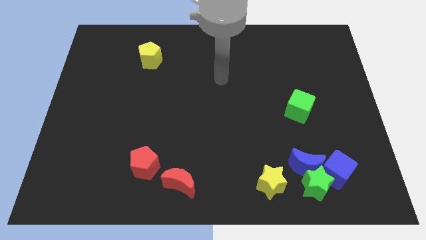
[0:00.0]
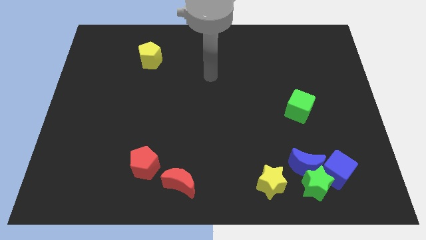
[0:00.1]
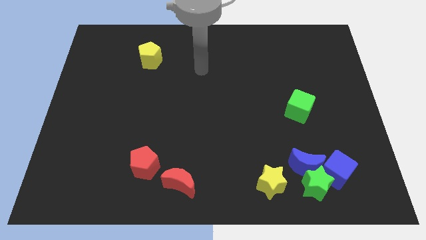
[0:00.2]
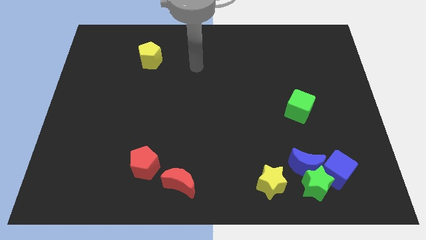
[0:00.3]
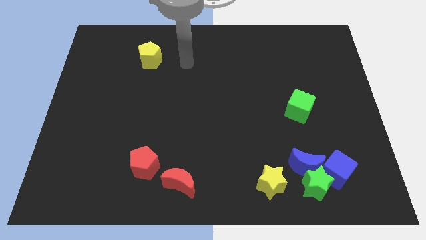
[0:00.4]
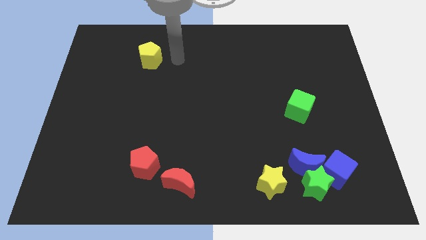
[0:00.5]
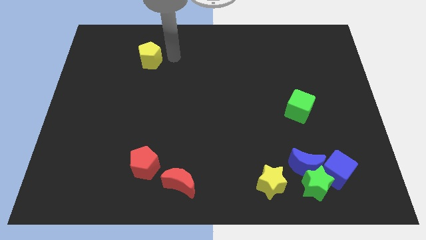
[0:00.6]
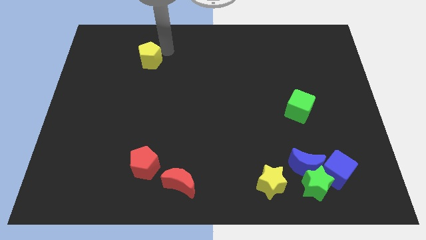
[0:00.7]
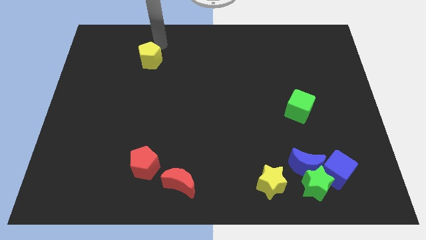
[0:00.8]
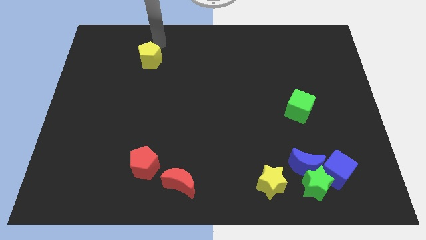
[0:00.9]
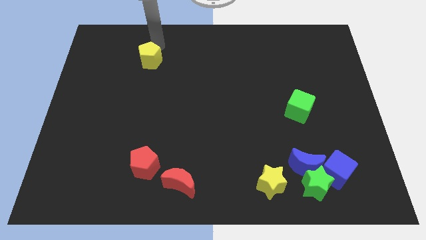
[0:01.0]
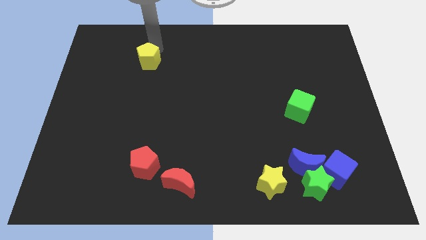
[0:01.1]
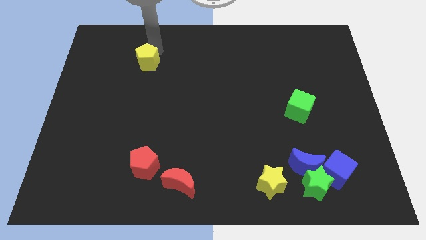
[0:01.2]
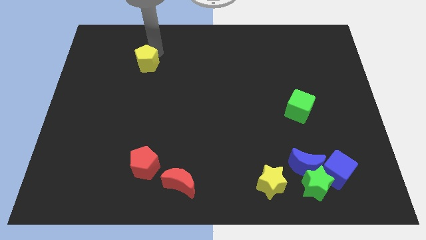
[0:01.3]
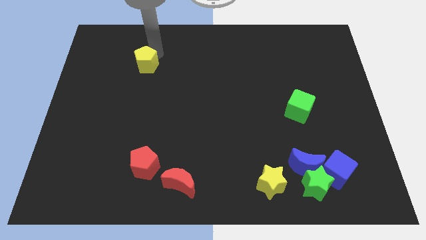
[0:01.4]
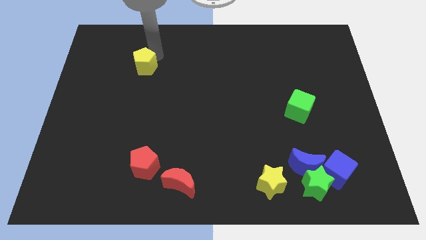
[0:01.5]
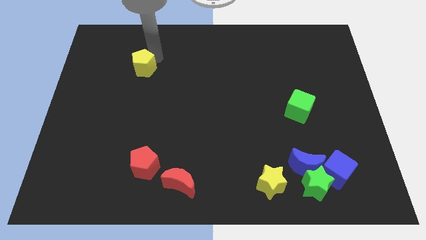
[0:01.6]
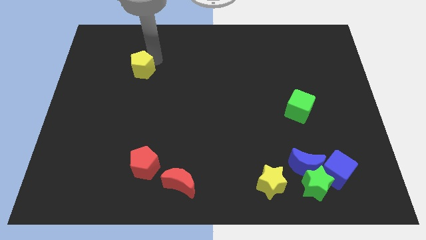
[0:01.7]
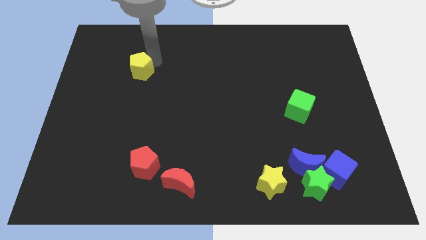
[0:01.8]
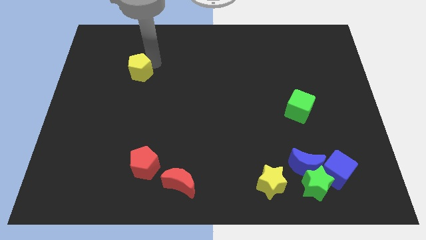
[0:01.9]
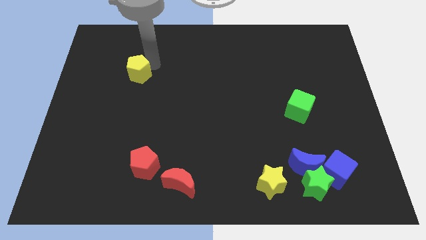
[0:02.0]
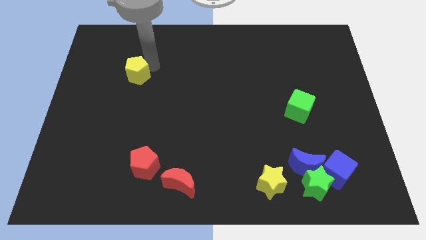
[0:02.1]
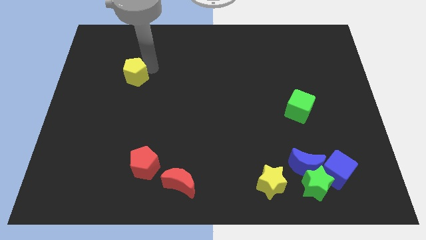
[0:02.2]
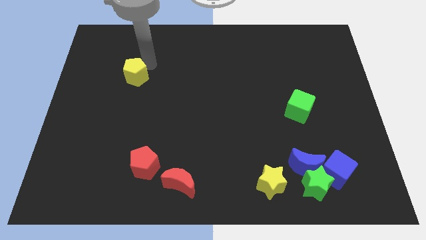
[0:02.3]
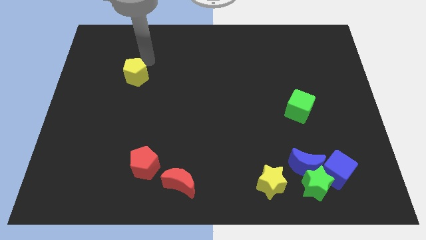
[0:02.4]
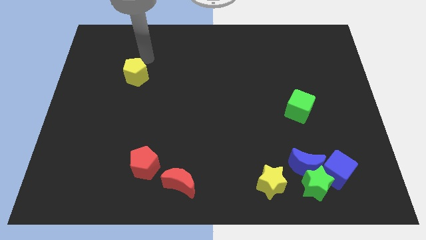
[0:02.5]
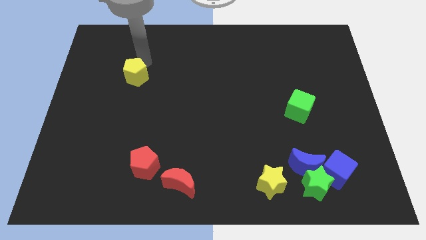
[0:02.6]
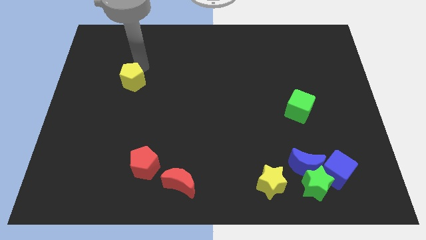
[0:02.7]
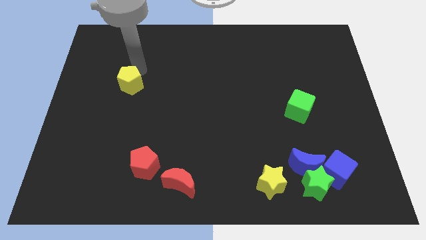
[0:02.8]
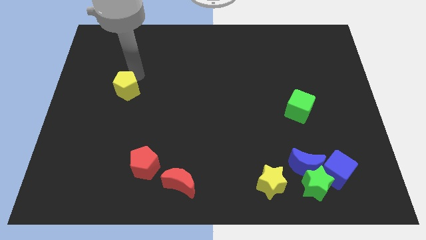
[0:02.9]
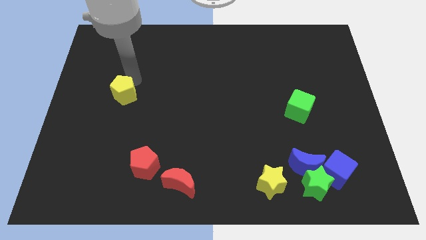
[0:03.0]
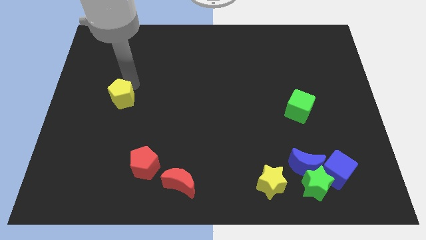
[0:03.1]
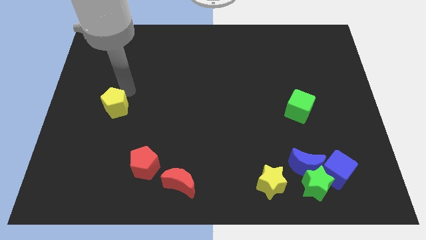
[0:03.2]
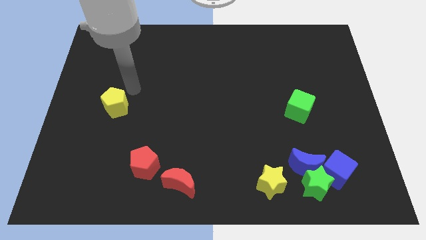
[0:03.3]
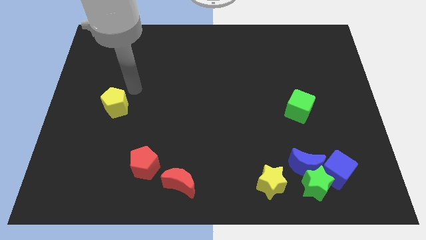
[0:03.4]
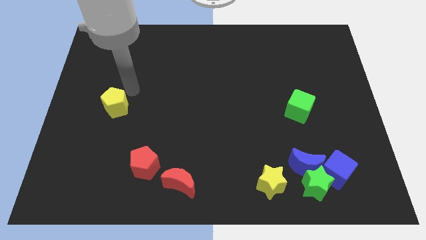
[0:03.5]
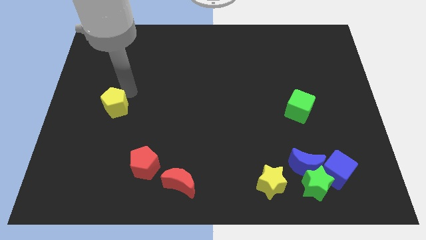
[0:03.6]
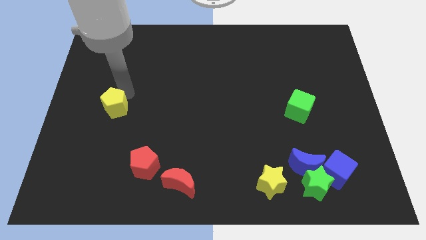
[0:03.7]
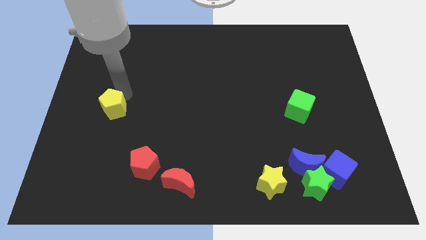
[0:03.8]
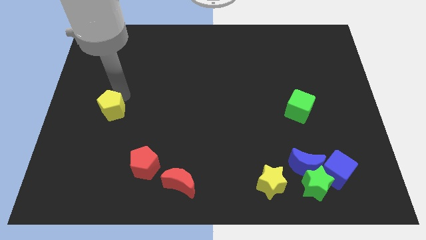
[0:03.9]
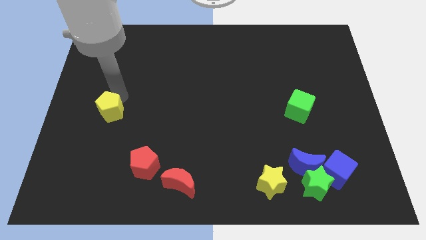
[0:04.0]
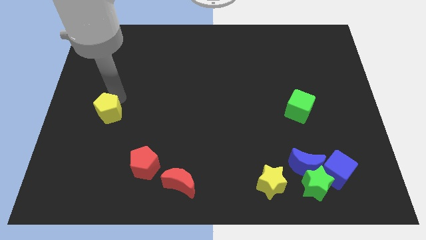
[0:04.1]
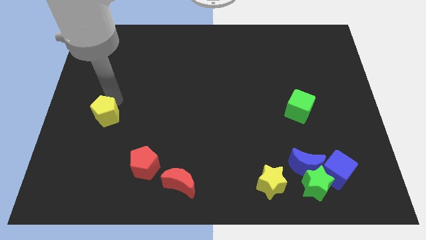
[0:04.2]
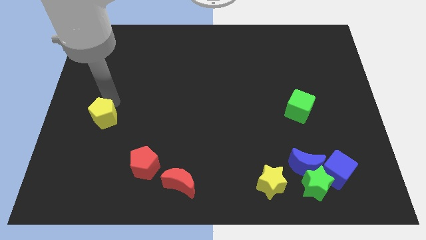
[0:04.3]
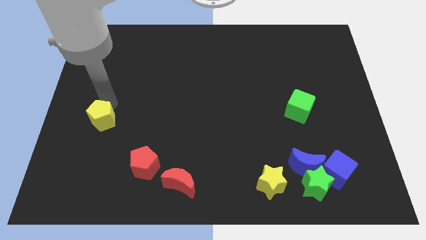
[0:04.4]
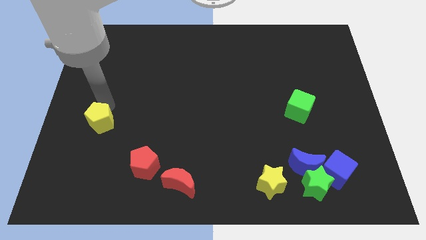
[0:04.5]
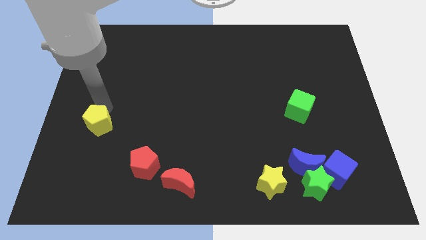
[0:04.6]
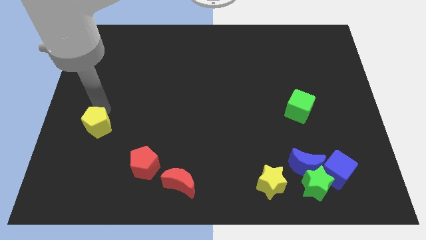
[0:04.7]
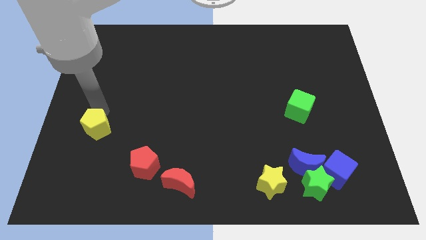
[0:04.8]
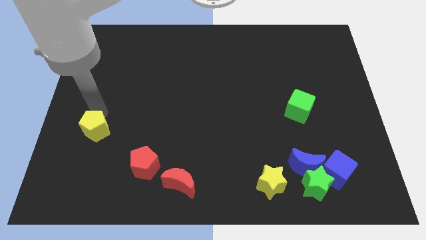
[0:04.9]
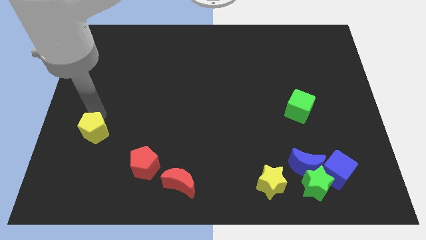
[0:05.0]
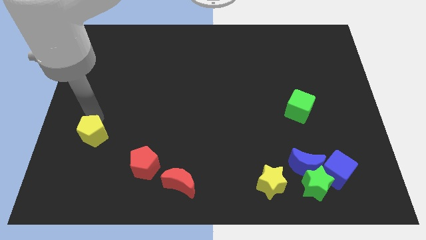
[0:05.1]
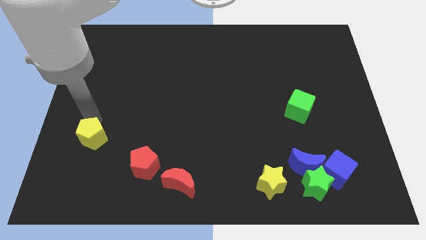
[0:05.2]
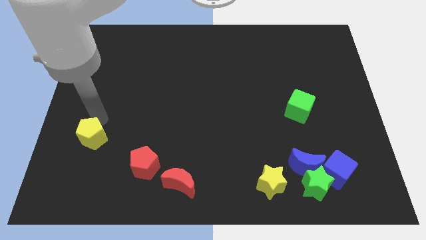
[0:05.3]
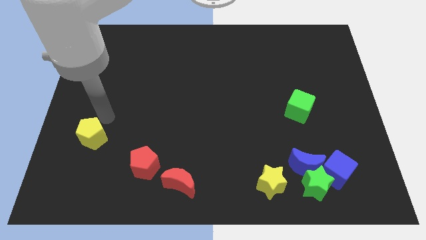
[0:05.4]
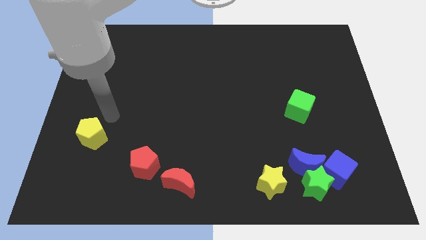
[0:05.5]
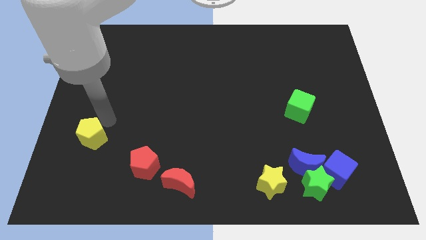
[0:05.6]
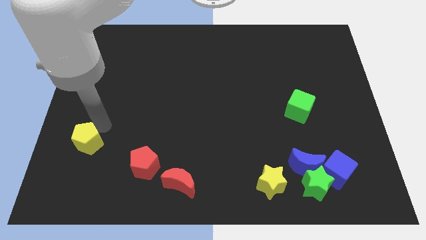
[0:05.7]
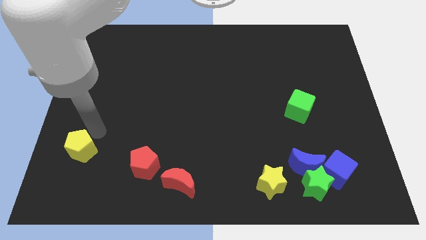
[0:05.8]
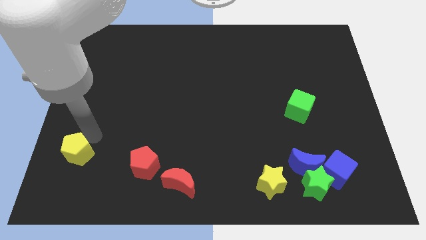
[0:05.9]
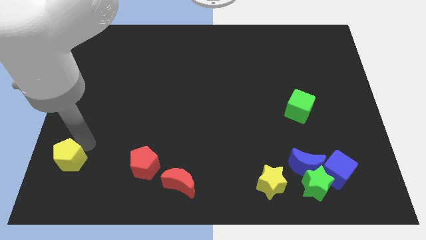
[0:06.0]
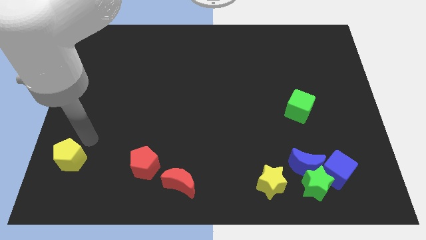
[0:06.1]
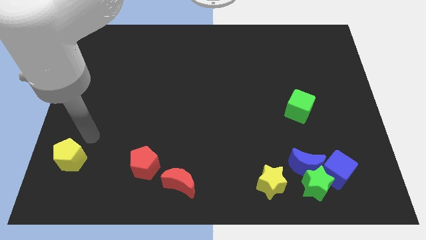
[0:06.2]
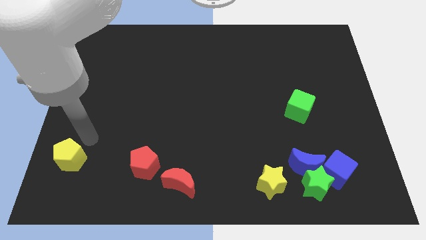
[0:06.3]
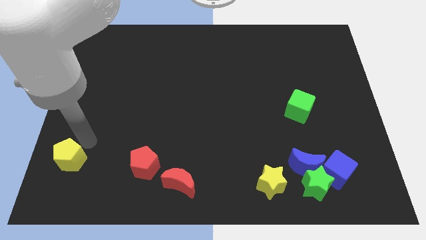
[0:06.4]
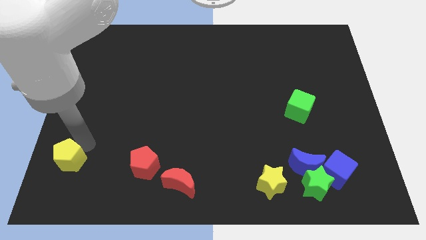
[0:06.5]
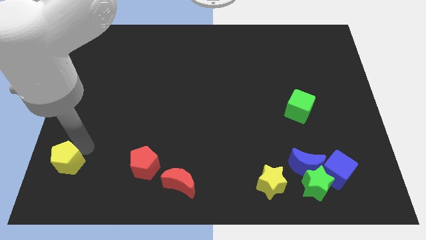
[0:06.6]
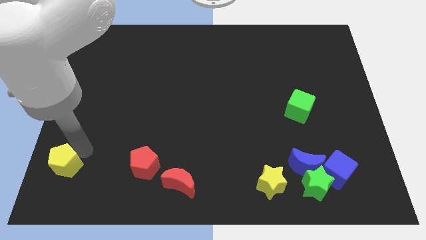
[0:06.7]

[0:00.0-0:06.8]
move the yellow pentagon to the bottom left
